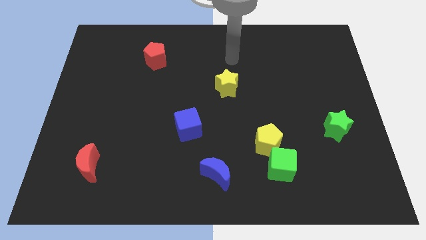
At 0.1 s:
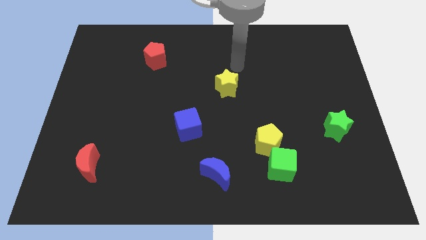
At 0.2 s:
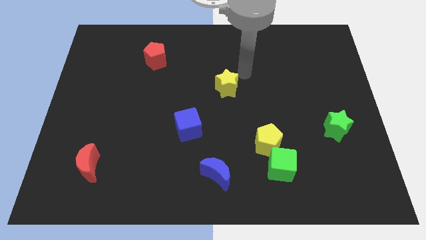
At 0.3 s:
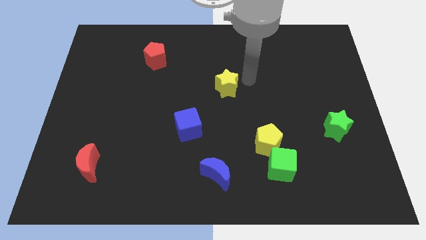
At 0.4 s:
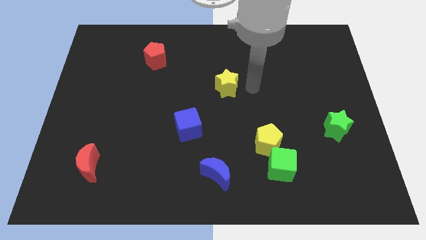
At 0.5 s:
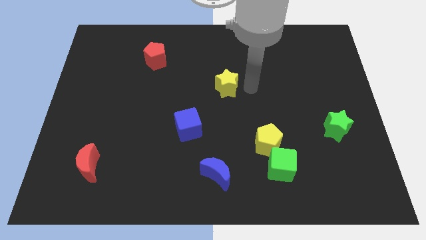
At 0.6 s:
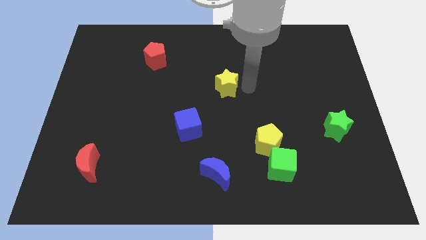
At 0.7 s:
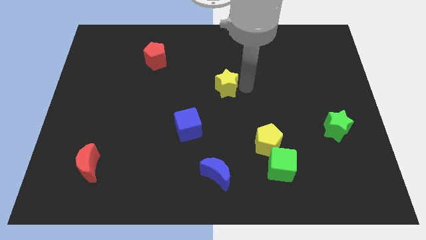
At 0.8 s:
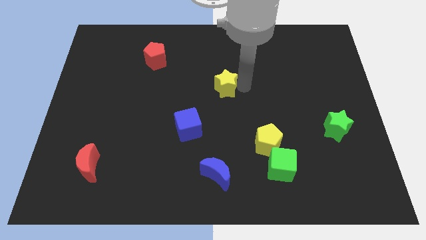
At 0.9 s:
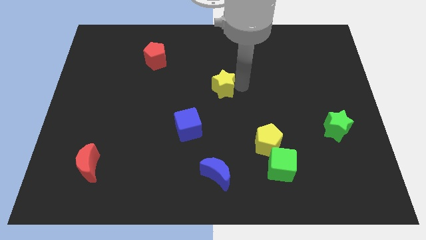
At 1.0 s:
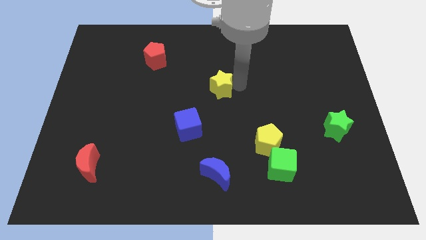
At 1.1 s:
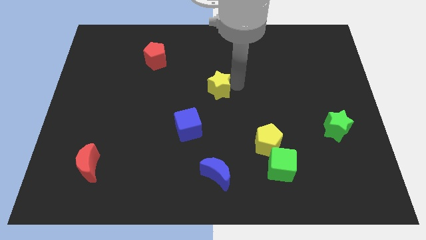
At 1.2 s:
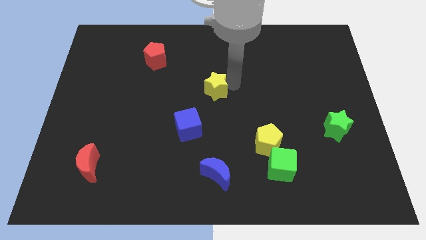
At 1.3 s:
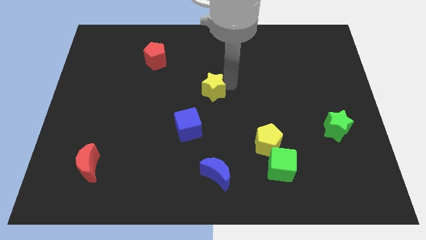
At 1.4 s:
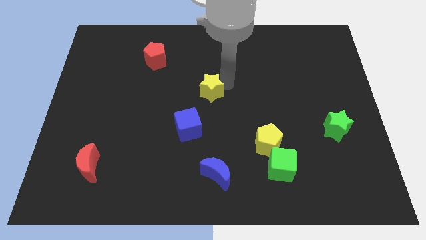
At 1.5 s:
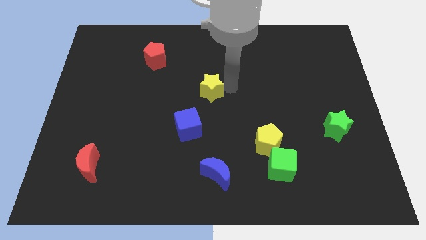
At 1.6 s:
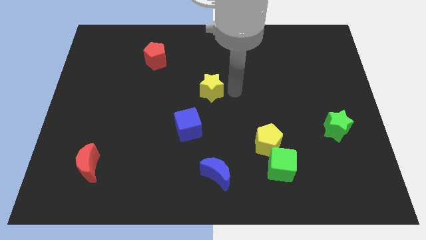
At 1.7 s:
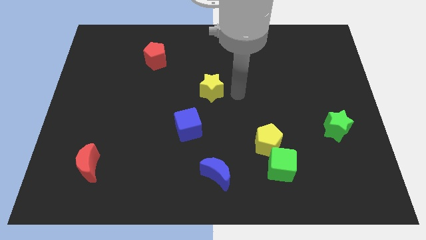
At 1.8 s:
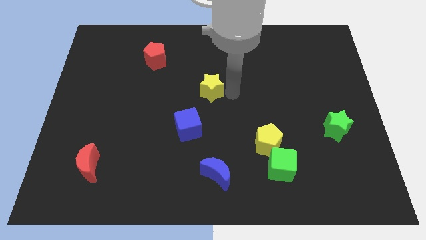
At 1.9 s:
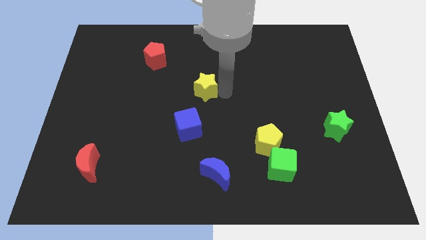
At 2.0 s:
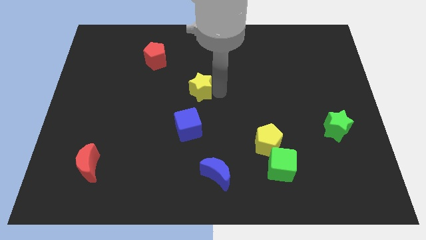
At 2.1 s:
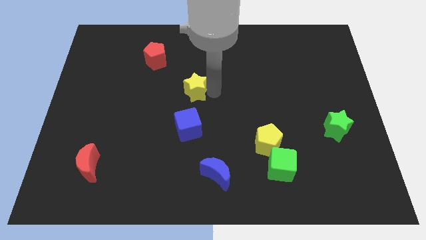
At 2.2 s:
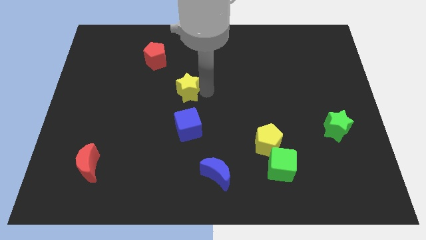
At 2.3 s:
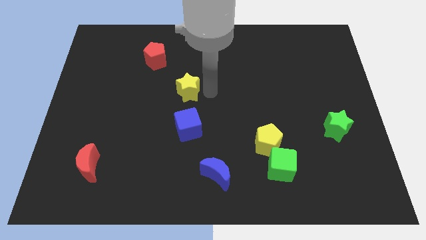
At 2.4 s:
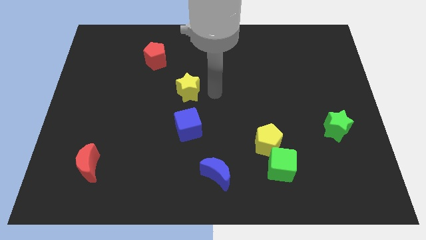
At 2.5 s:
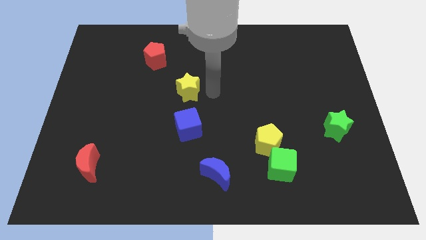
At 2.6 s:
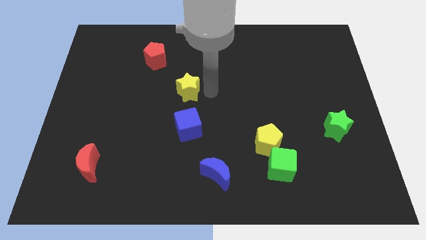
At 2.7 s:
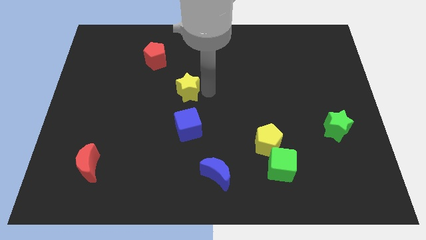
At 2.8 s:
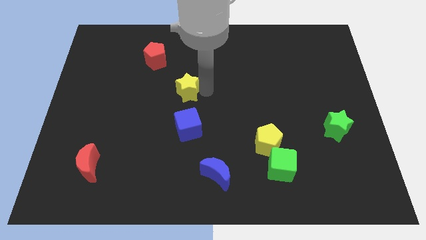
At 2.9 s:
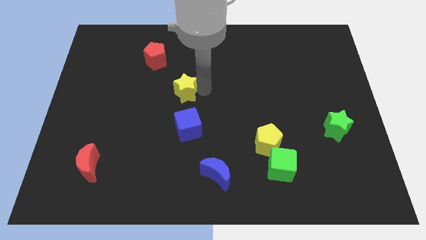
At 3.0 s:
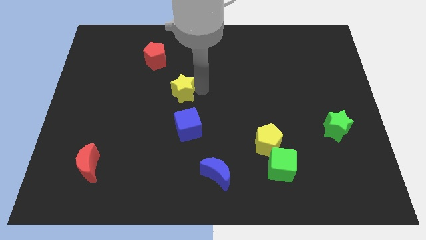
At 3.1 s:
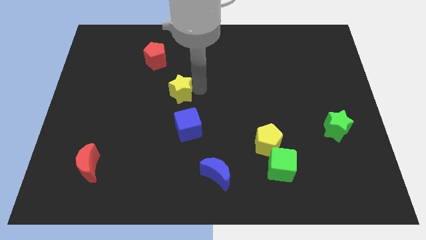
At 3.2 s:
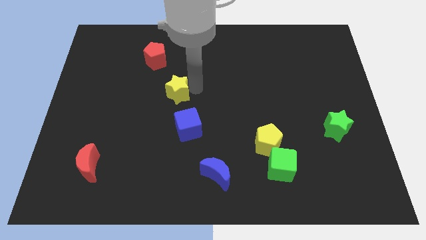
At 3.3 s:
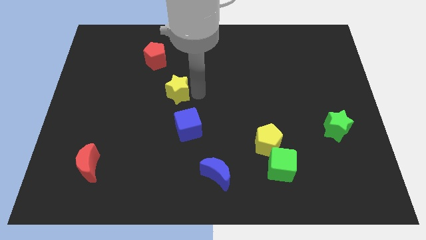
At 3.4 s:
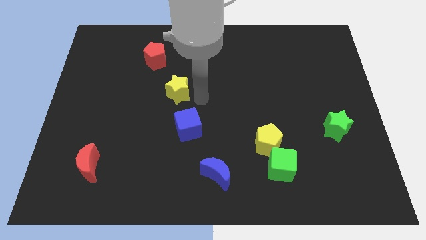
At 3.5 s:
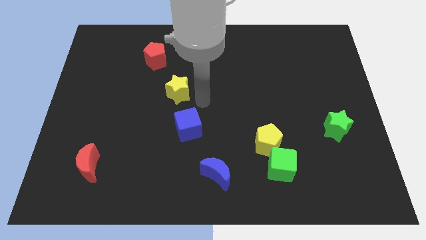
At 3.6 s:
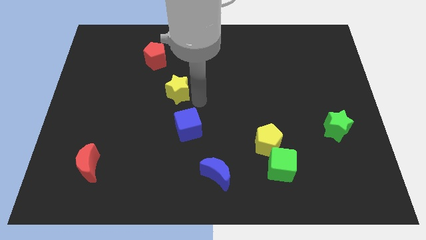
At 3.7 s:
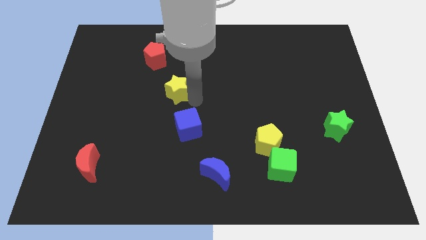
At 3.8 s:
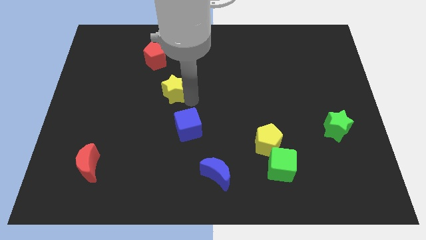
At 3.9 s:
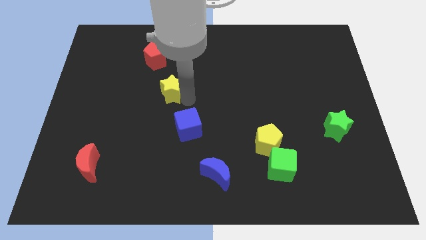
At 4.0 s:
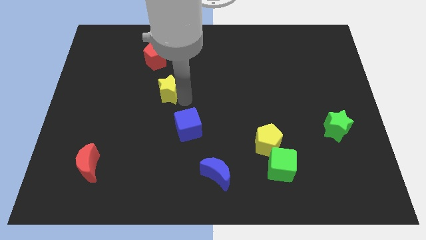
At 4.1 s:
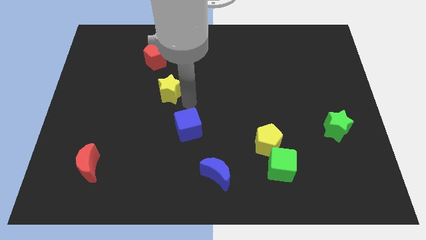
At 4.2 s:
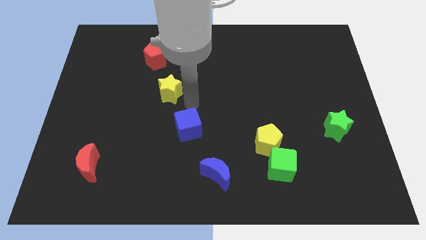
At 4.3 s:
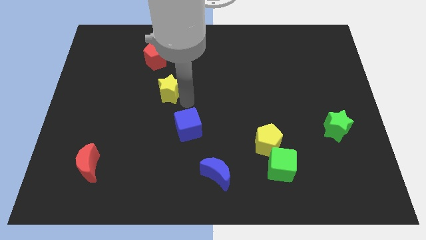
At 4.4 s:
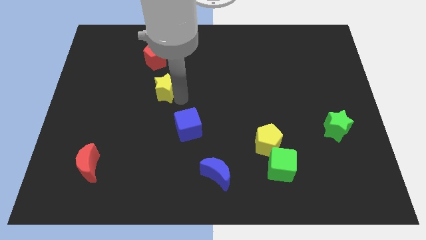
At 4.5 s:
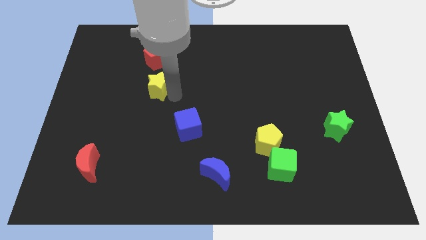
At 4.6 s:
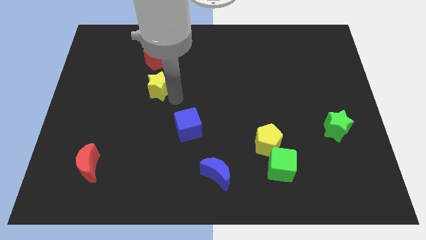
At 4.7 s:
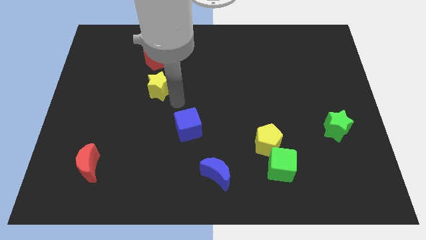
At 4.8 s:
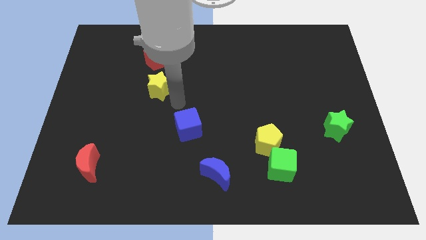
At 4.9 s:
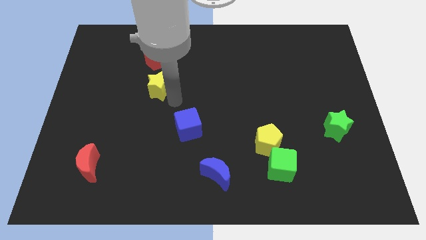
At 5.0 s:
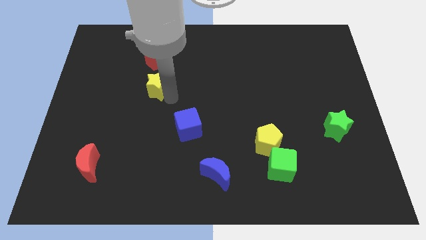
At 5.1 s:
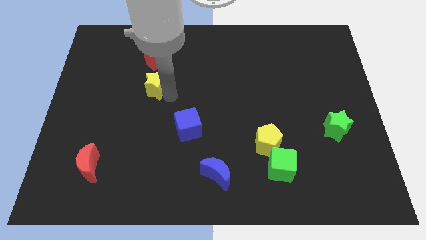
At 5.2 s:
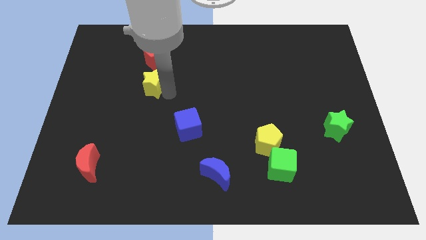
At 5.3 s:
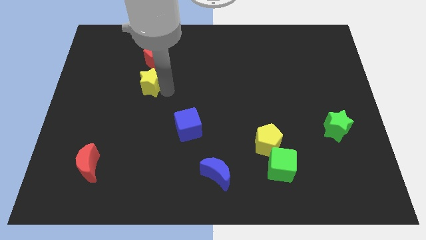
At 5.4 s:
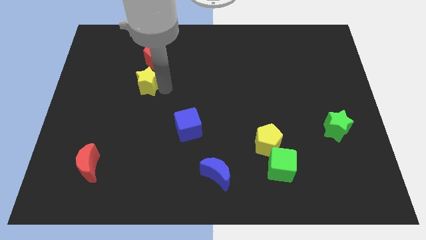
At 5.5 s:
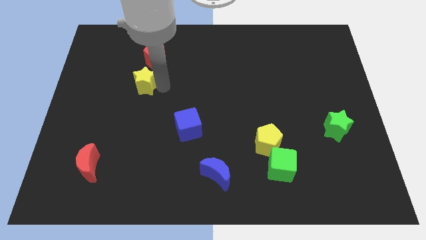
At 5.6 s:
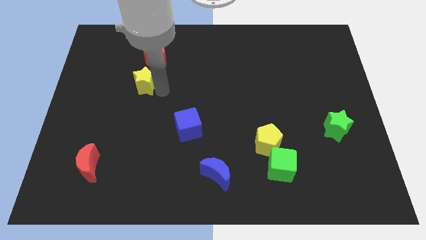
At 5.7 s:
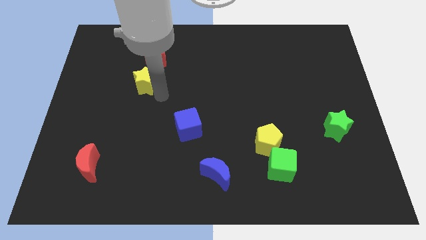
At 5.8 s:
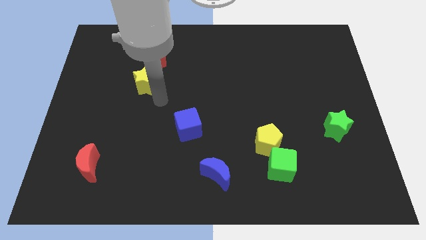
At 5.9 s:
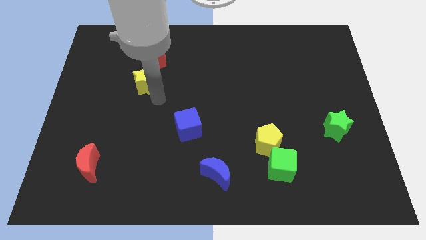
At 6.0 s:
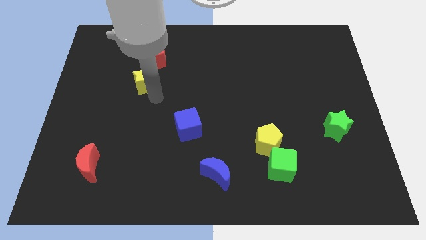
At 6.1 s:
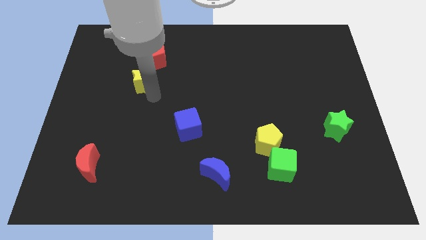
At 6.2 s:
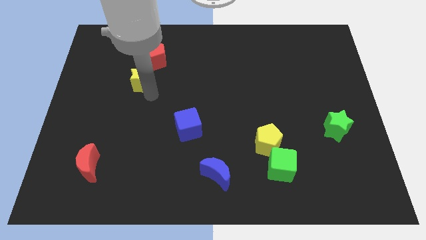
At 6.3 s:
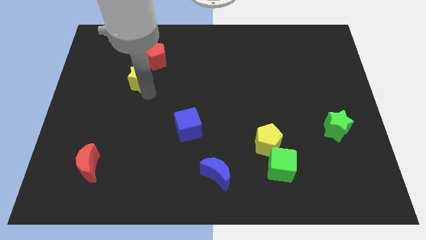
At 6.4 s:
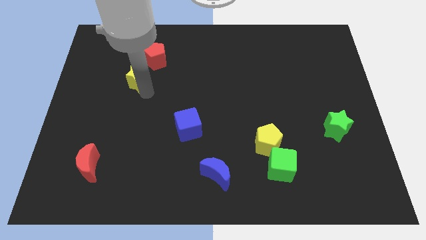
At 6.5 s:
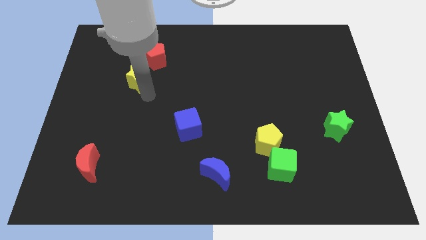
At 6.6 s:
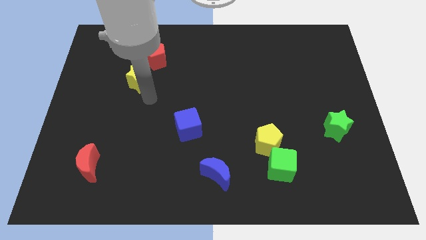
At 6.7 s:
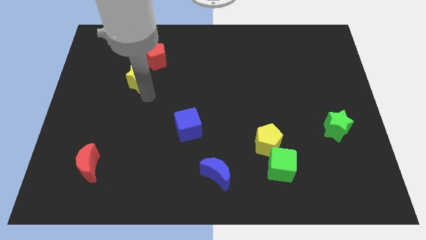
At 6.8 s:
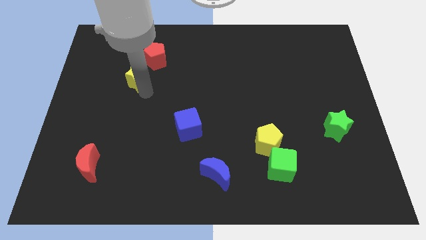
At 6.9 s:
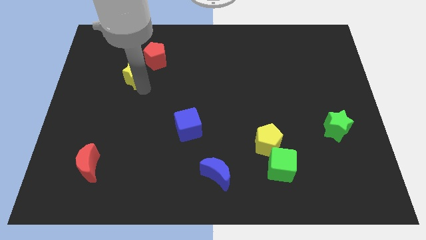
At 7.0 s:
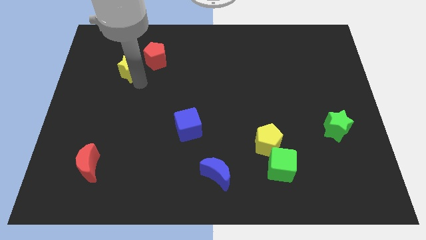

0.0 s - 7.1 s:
slide the yellow star just left of the red pentagon

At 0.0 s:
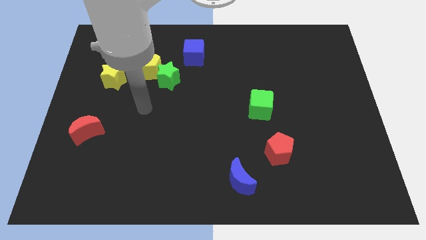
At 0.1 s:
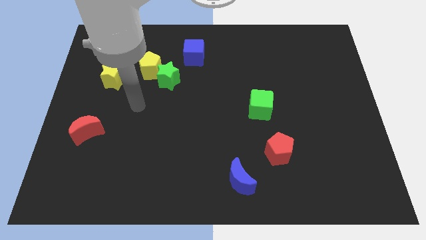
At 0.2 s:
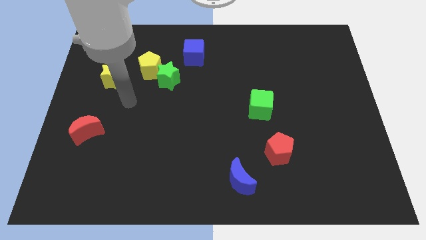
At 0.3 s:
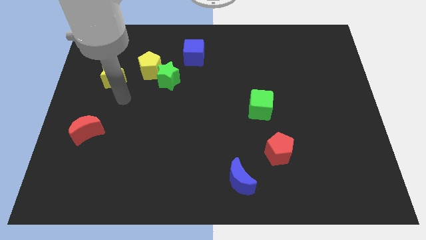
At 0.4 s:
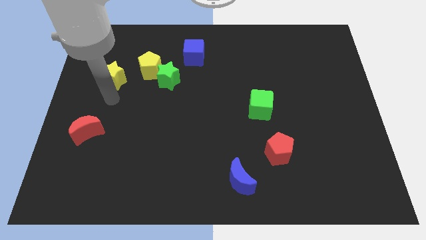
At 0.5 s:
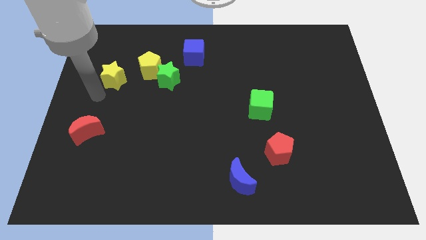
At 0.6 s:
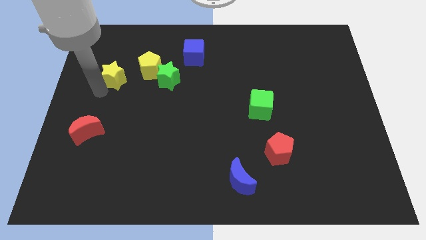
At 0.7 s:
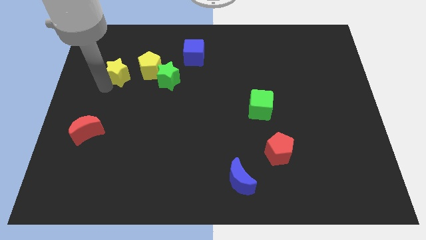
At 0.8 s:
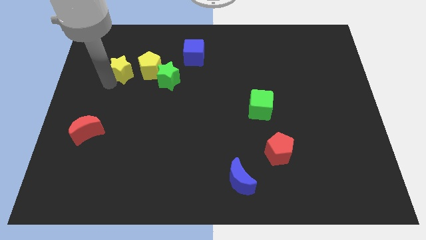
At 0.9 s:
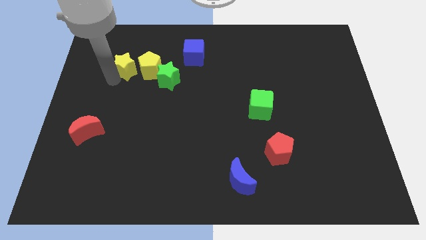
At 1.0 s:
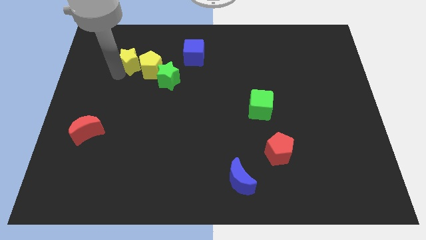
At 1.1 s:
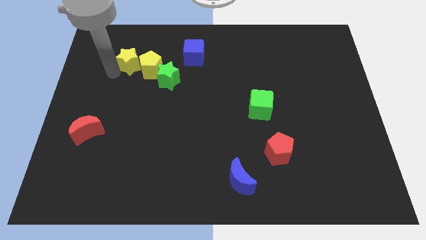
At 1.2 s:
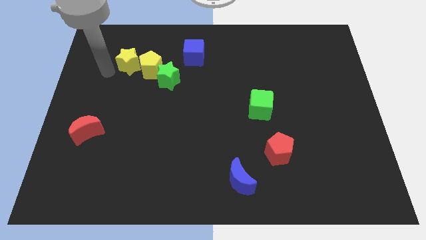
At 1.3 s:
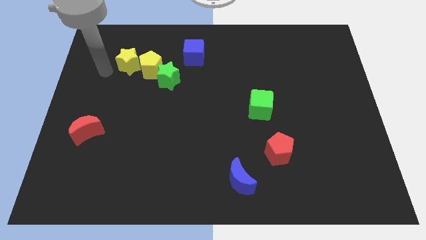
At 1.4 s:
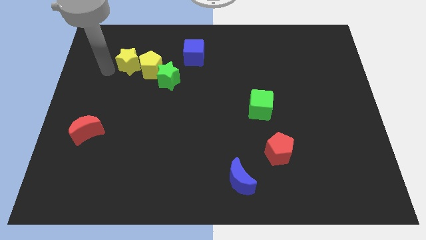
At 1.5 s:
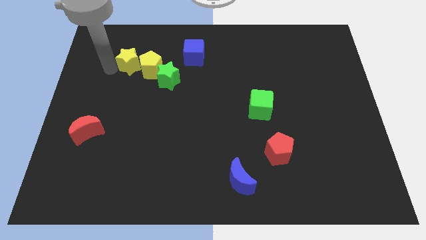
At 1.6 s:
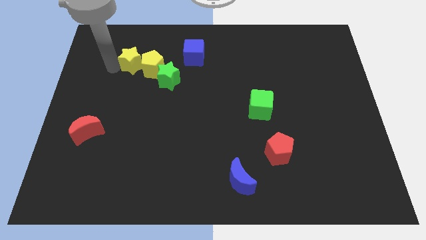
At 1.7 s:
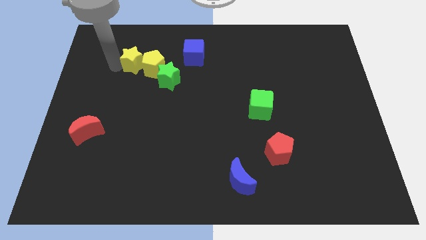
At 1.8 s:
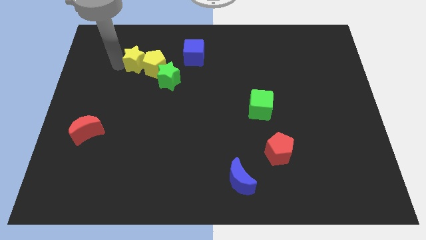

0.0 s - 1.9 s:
slide the yellow star just left of the blue cube
